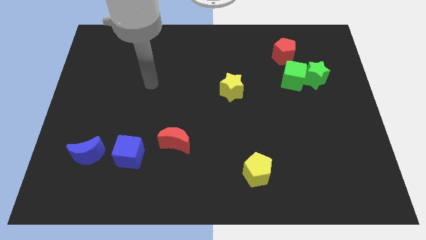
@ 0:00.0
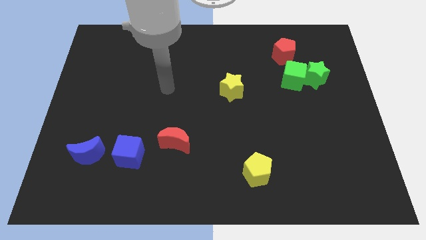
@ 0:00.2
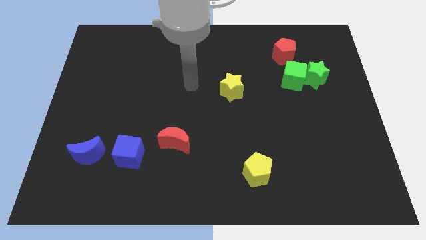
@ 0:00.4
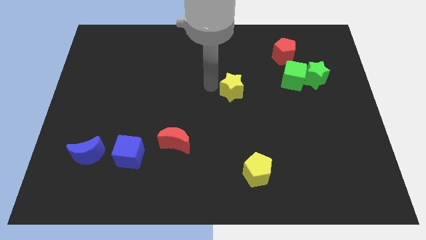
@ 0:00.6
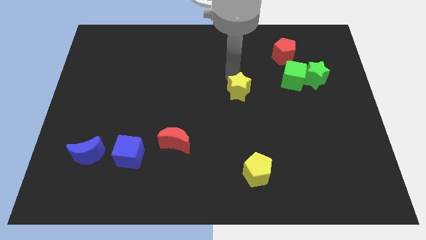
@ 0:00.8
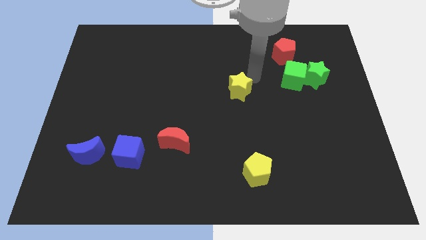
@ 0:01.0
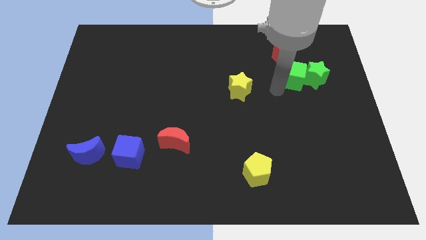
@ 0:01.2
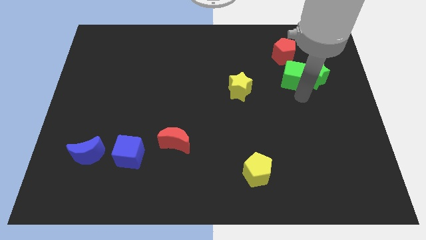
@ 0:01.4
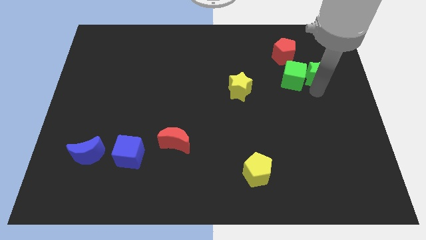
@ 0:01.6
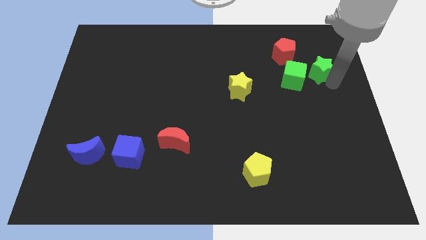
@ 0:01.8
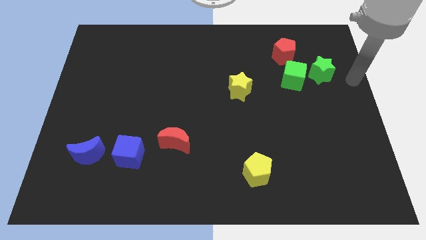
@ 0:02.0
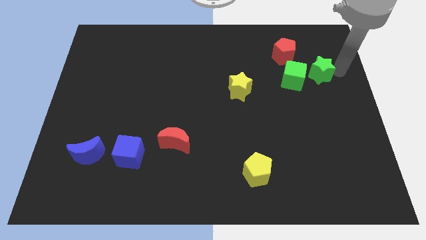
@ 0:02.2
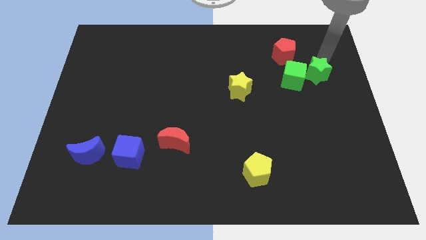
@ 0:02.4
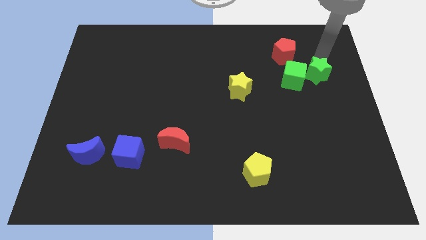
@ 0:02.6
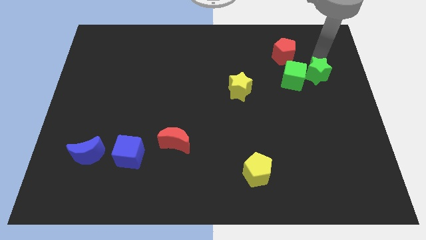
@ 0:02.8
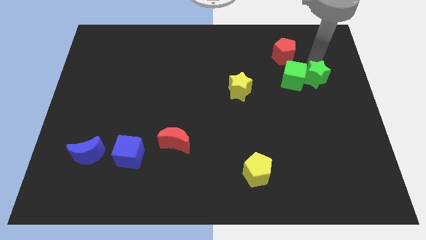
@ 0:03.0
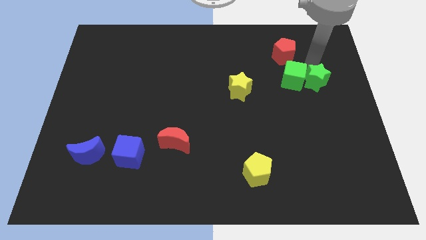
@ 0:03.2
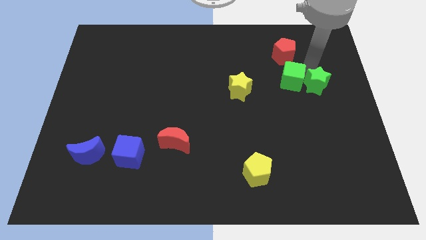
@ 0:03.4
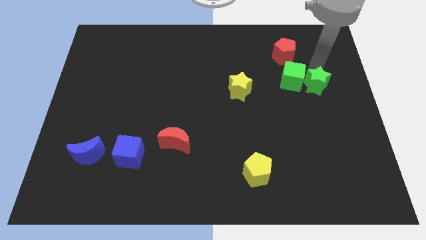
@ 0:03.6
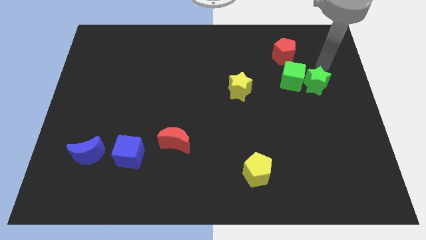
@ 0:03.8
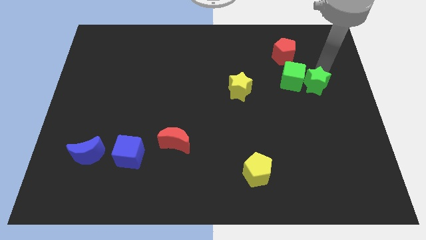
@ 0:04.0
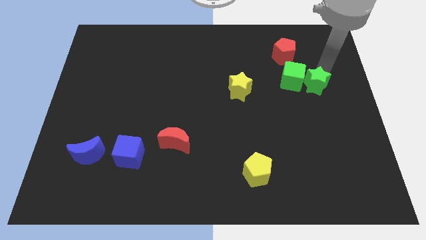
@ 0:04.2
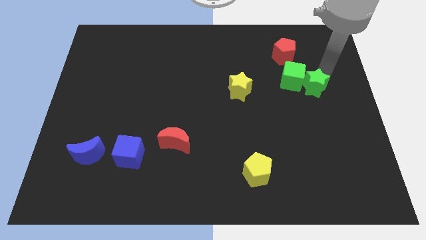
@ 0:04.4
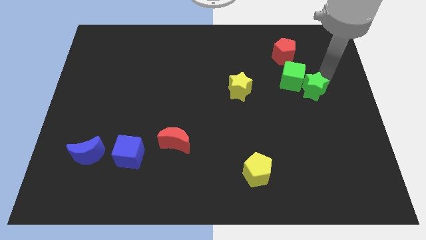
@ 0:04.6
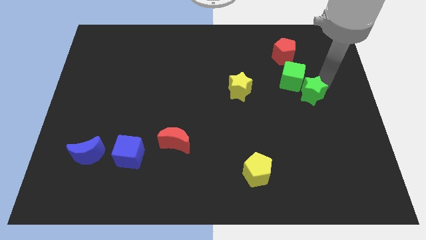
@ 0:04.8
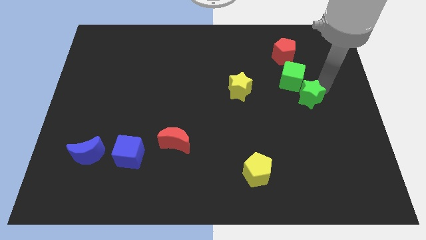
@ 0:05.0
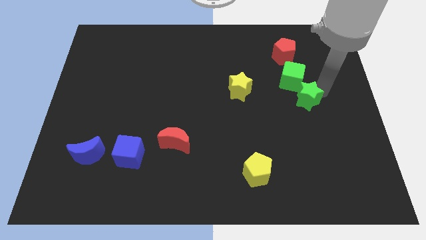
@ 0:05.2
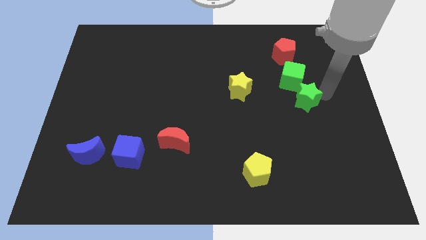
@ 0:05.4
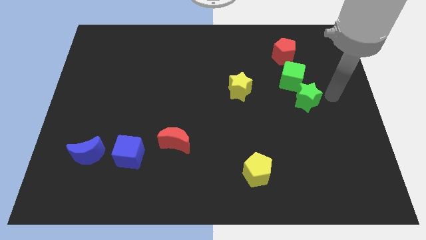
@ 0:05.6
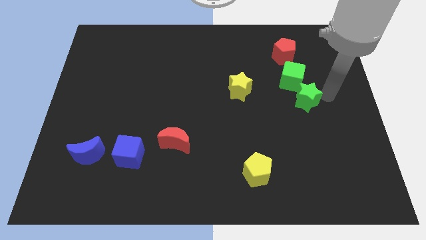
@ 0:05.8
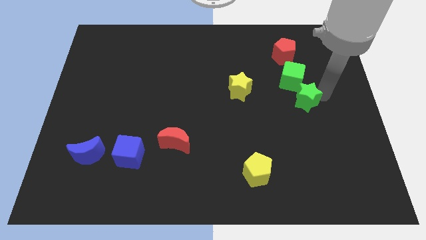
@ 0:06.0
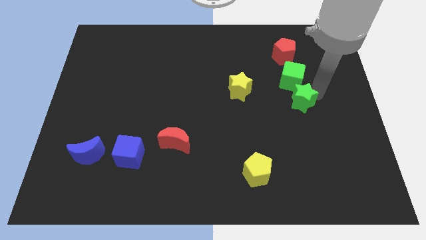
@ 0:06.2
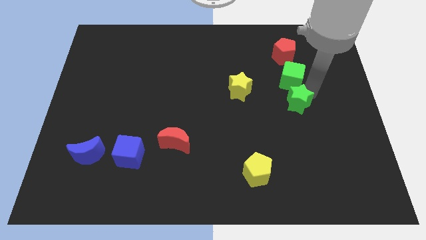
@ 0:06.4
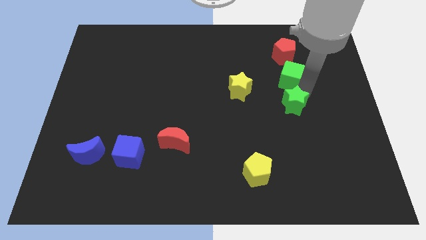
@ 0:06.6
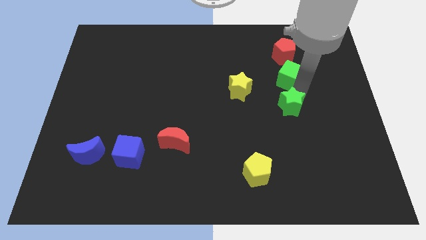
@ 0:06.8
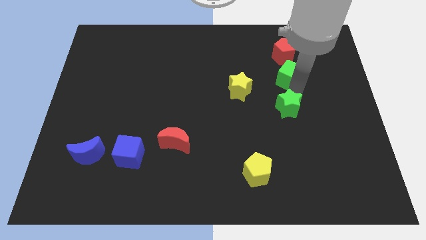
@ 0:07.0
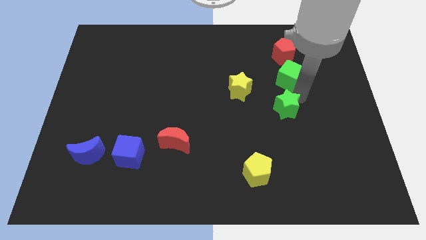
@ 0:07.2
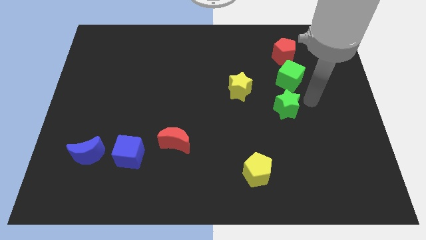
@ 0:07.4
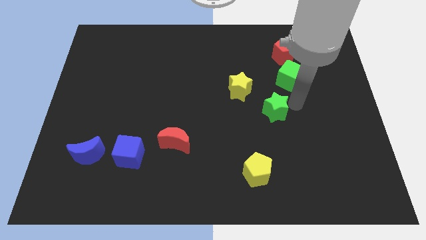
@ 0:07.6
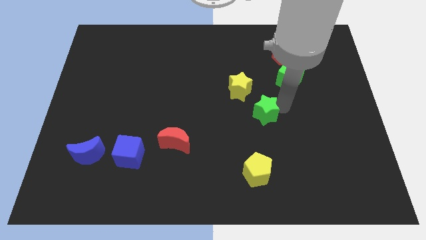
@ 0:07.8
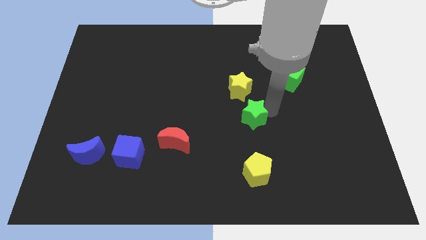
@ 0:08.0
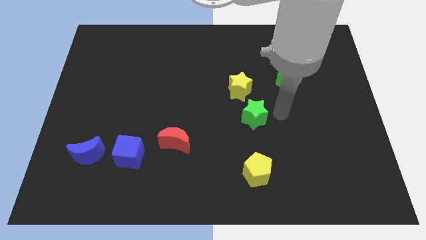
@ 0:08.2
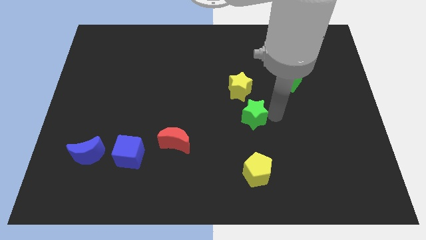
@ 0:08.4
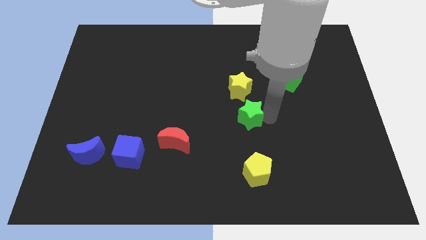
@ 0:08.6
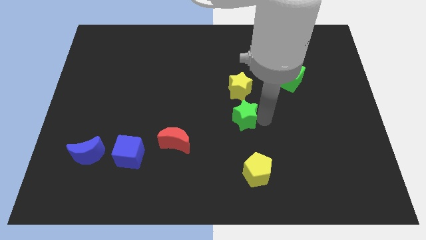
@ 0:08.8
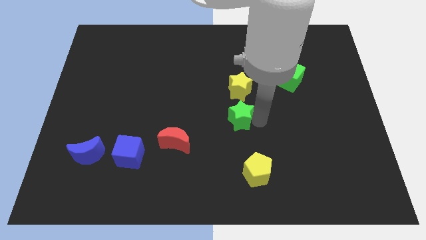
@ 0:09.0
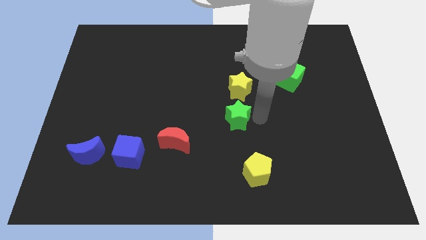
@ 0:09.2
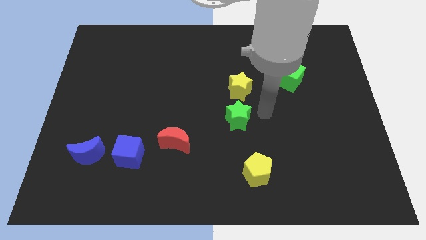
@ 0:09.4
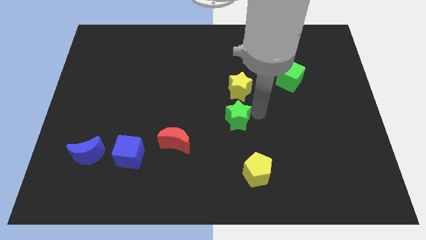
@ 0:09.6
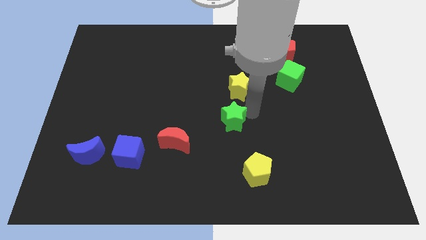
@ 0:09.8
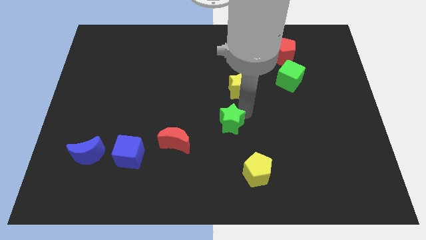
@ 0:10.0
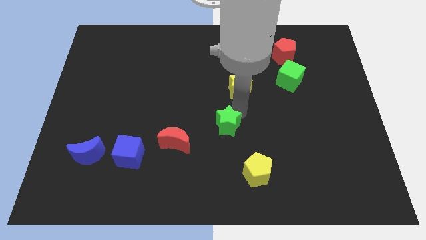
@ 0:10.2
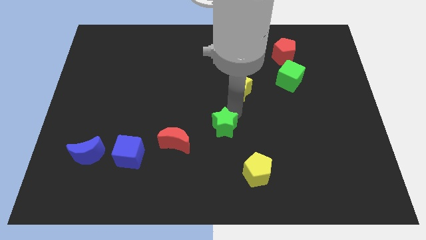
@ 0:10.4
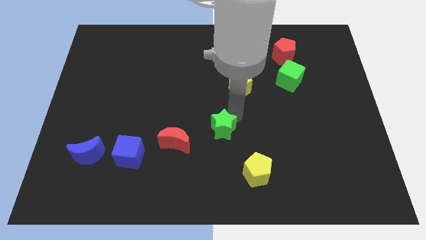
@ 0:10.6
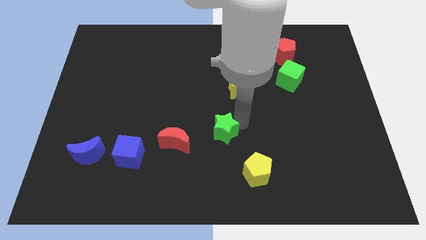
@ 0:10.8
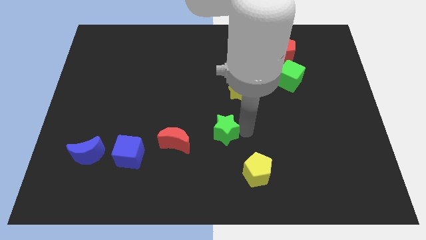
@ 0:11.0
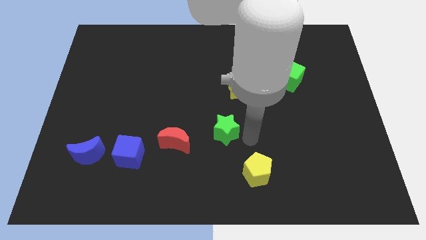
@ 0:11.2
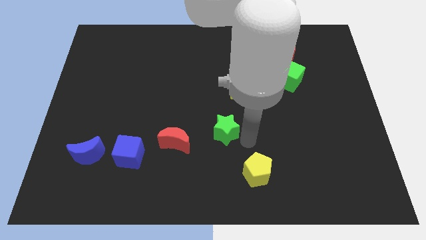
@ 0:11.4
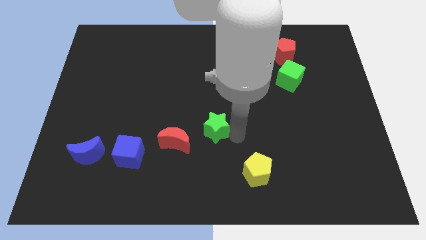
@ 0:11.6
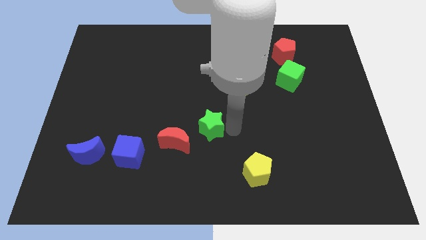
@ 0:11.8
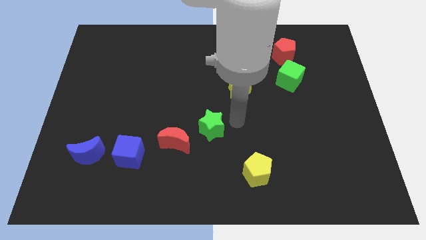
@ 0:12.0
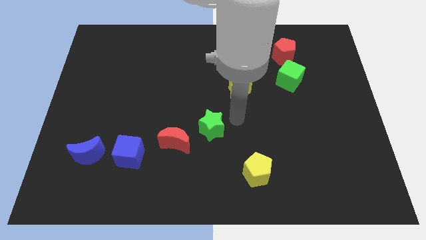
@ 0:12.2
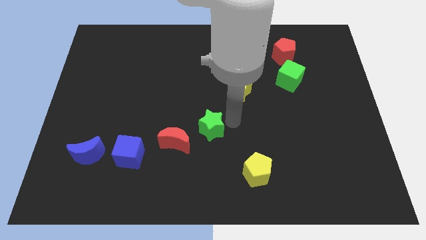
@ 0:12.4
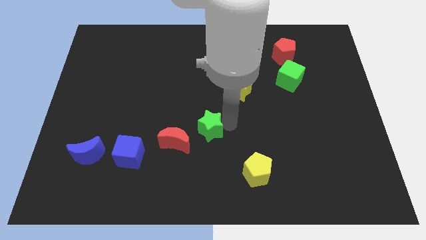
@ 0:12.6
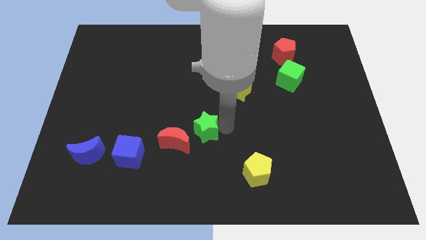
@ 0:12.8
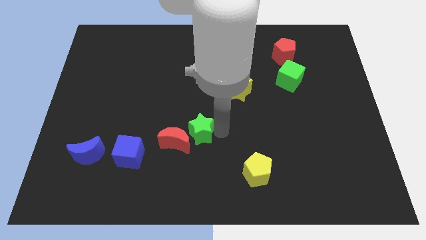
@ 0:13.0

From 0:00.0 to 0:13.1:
move the green star to the red moon
